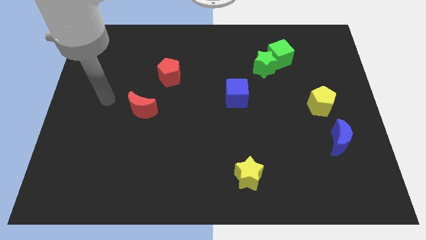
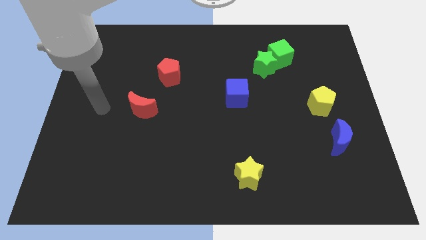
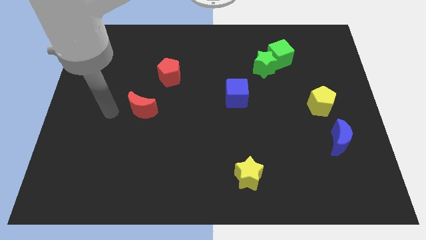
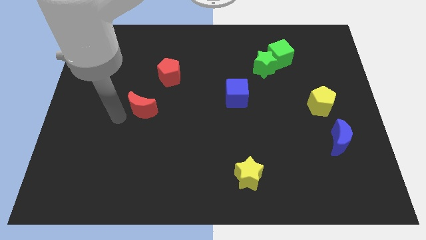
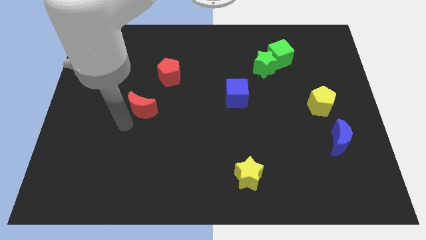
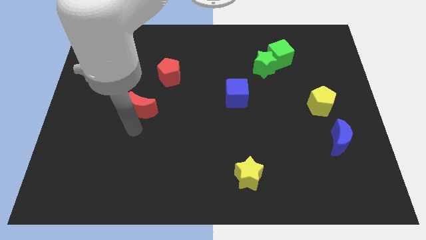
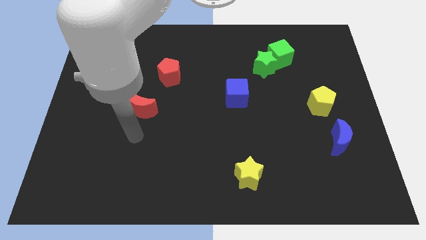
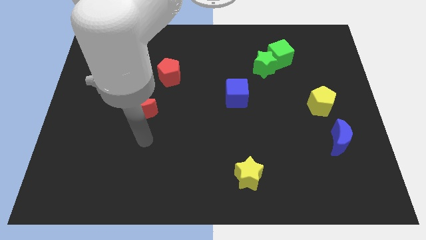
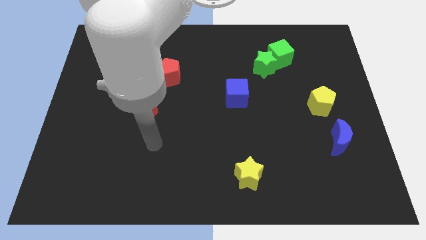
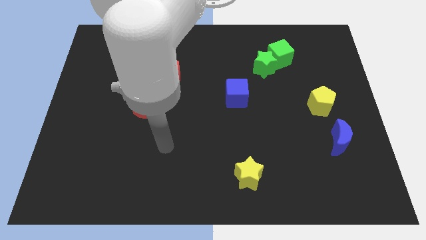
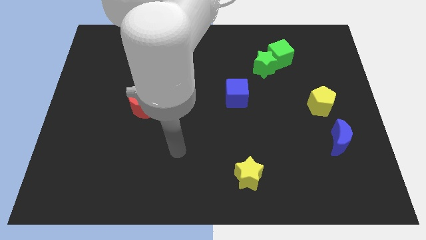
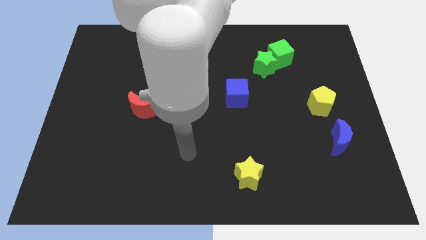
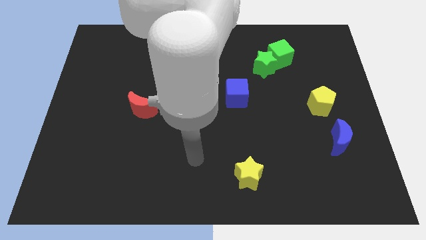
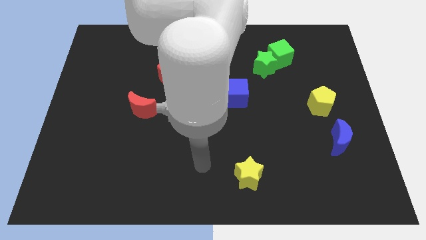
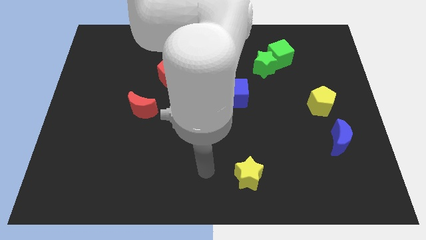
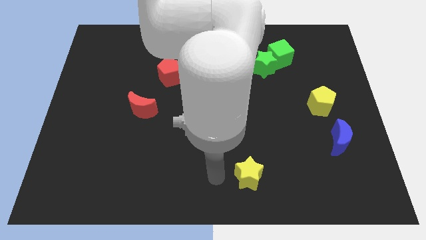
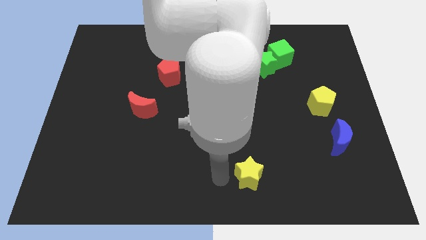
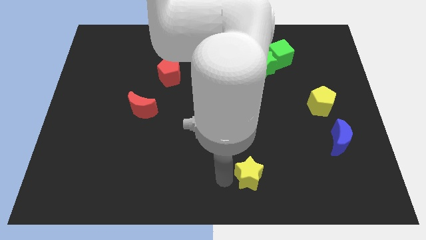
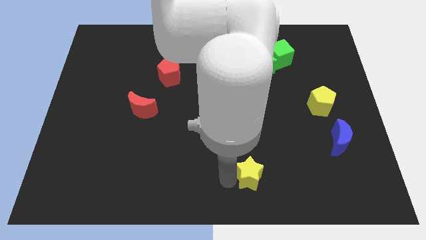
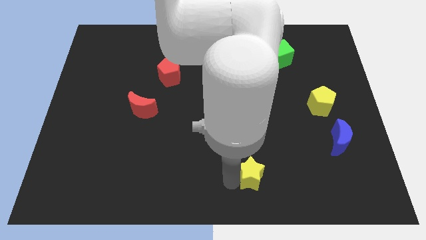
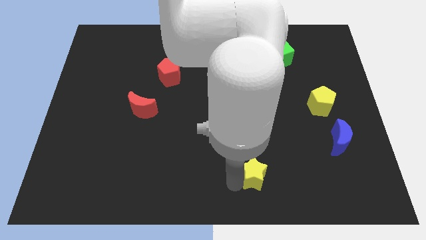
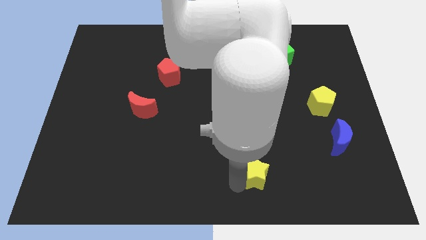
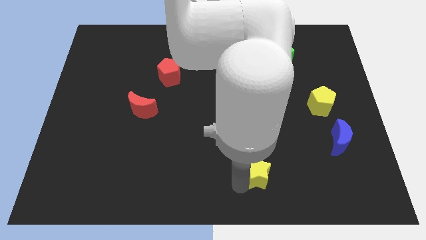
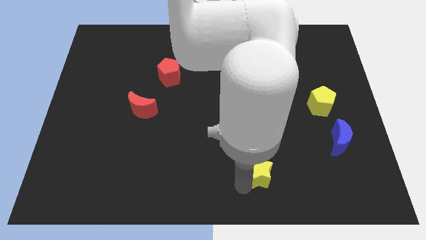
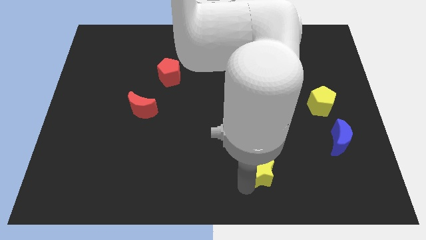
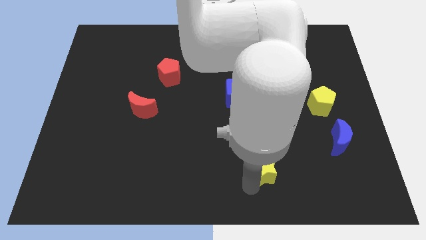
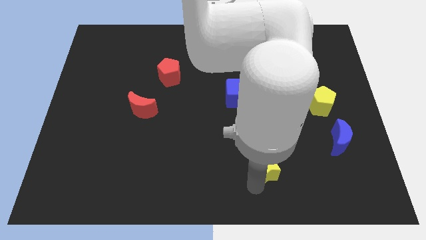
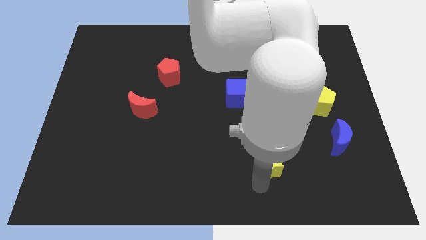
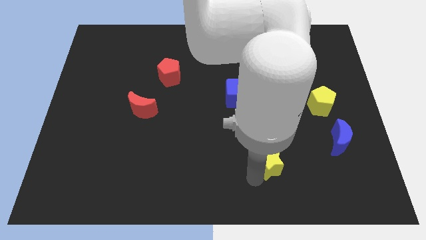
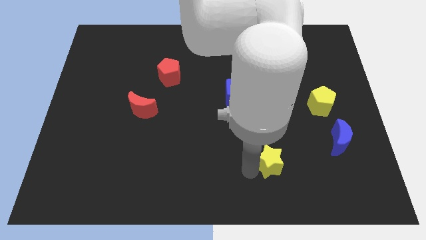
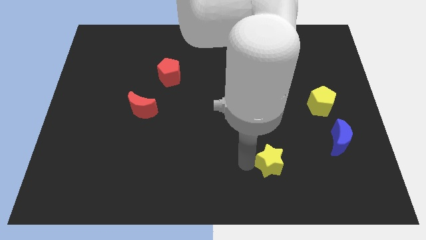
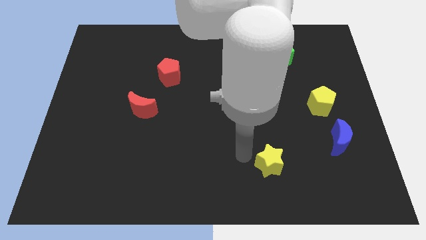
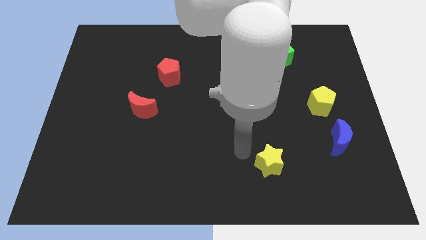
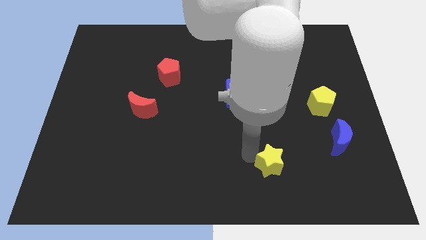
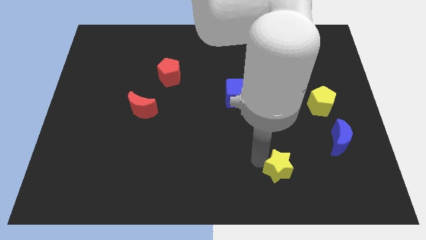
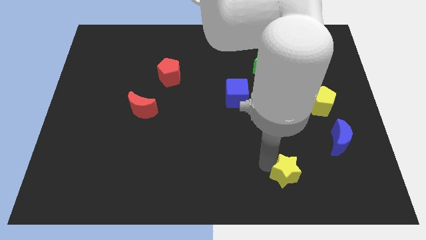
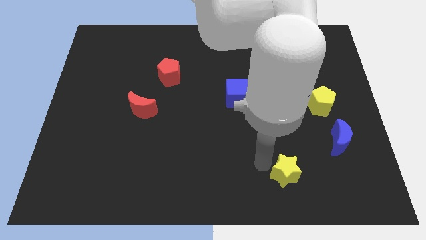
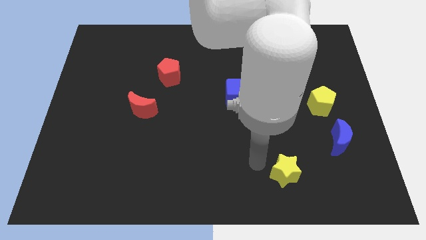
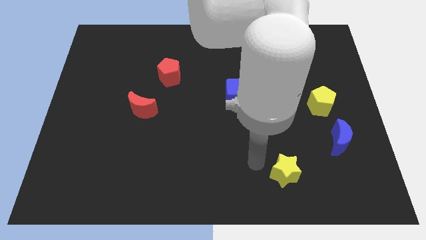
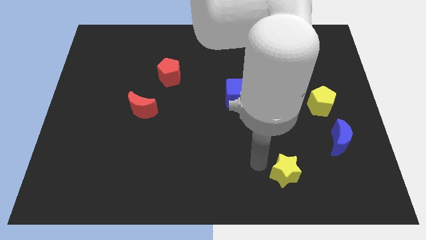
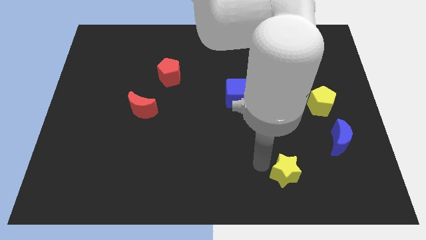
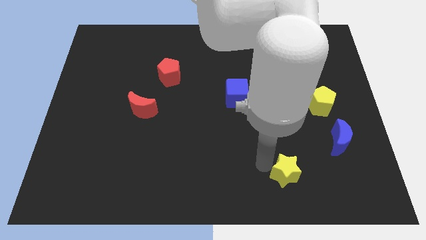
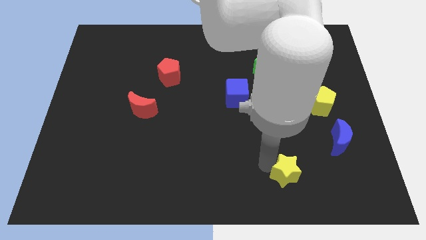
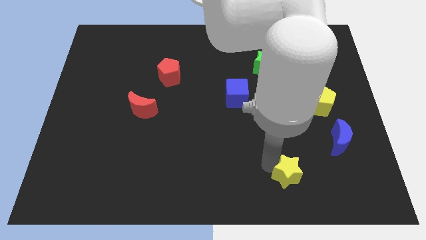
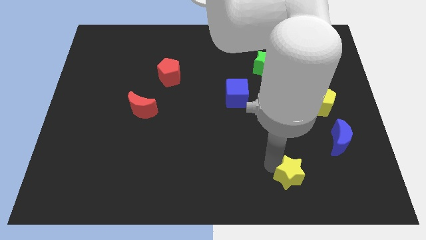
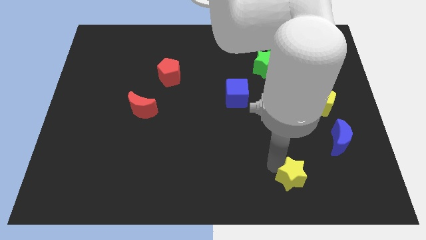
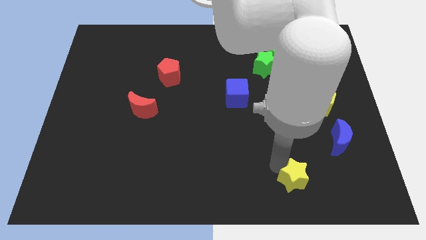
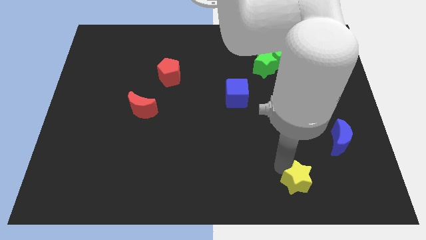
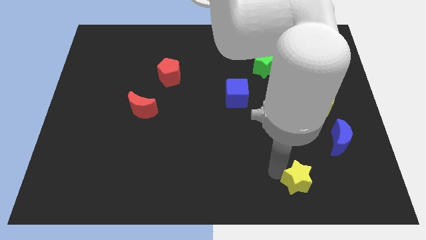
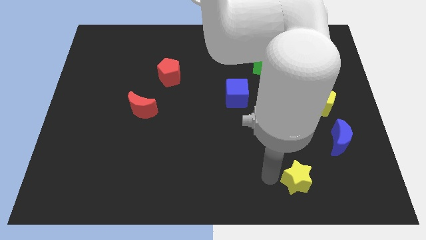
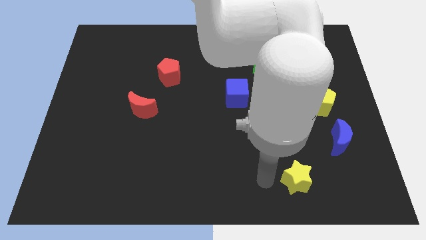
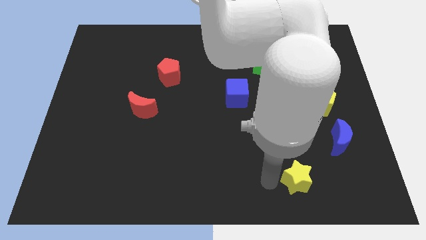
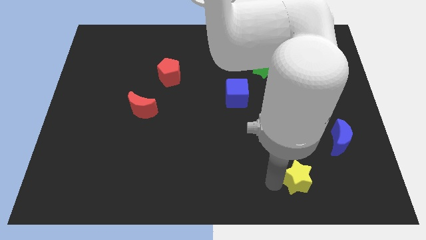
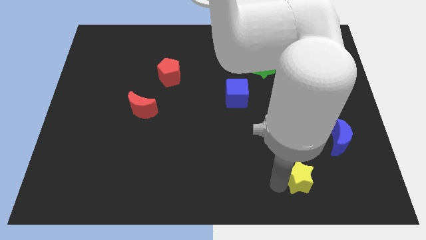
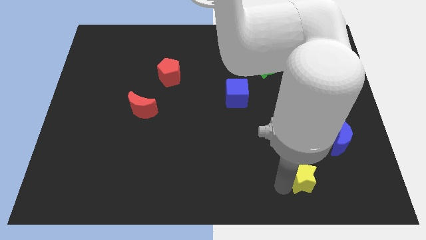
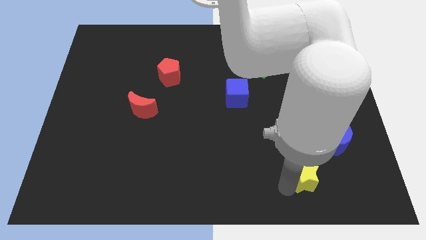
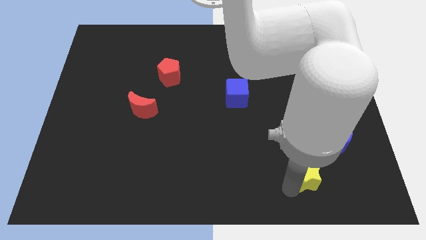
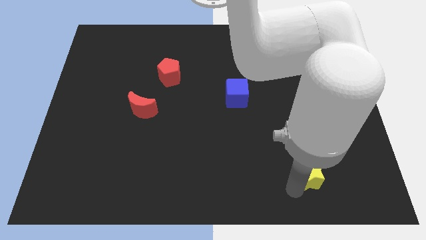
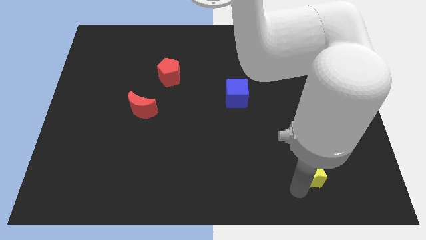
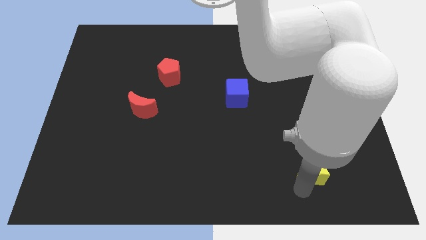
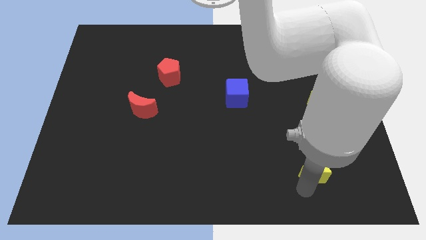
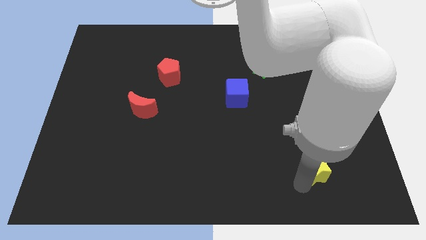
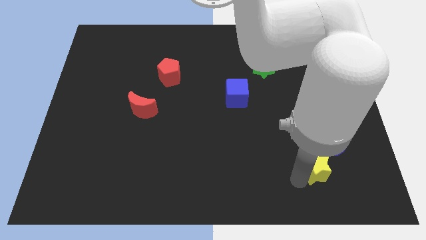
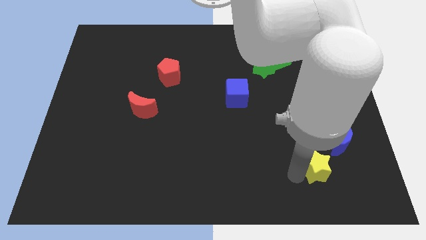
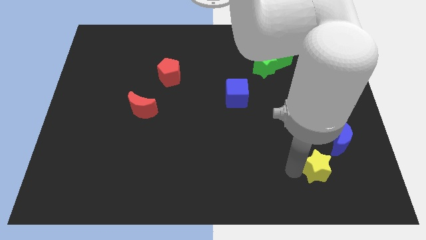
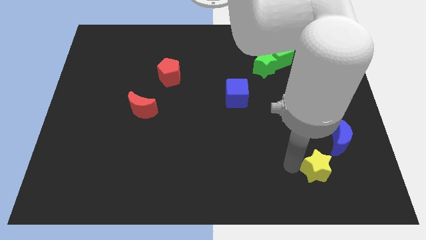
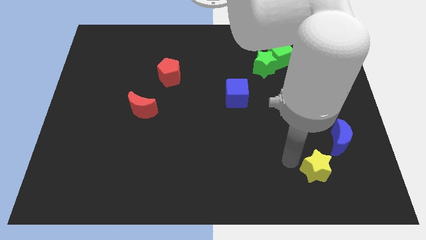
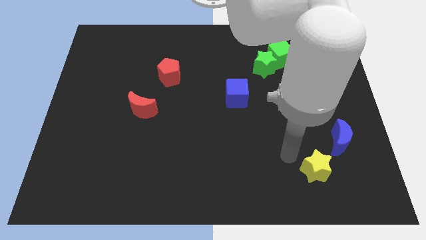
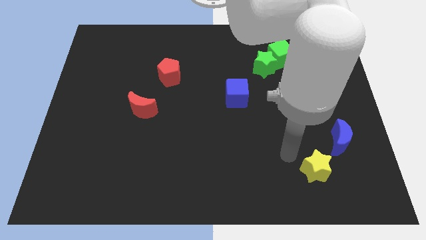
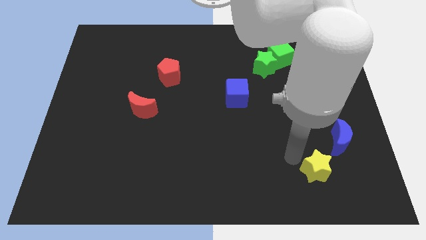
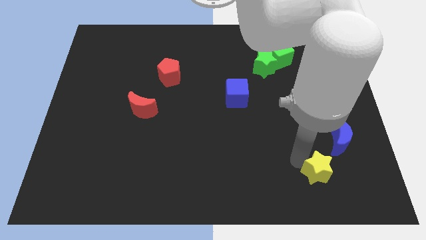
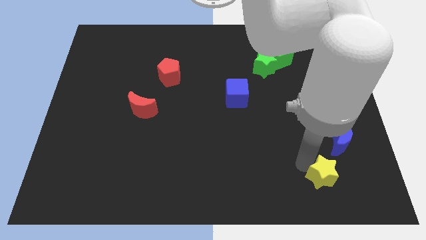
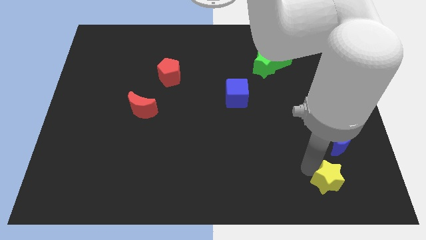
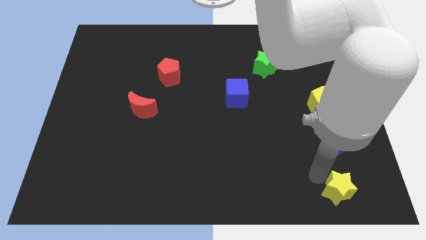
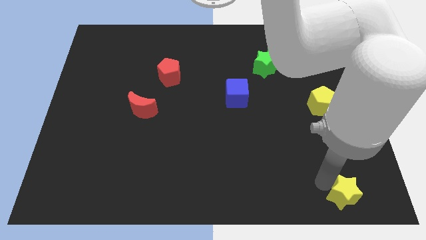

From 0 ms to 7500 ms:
put the yellow star to the bottom right of the board

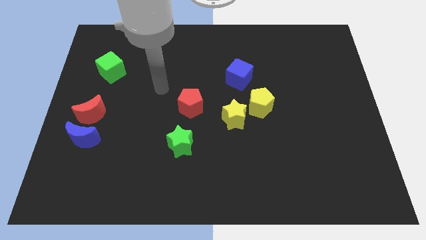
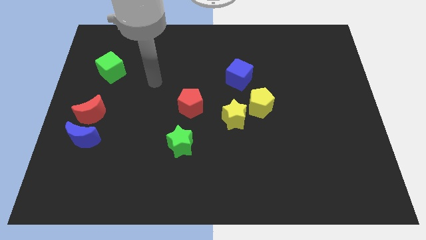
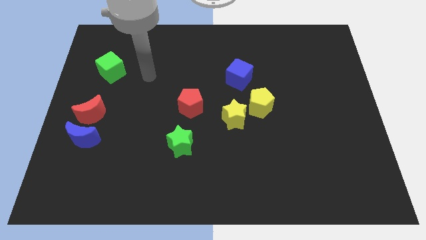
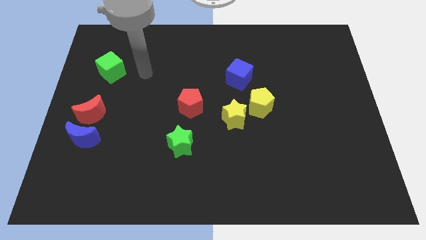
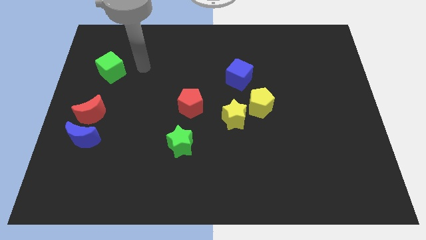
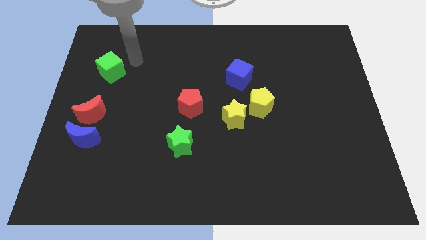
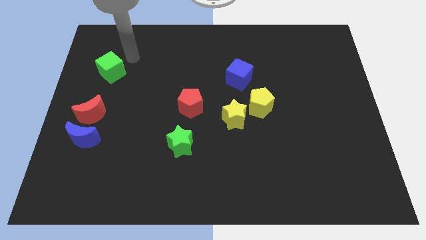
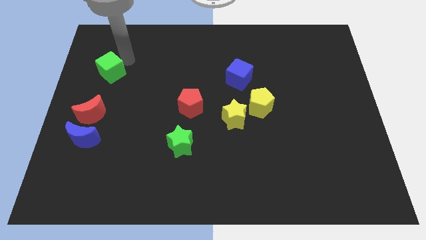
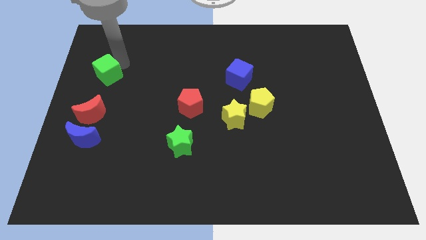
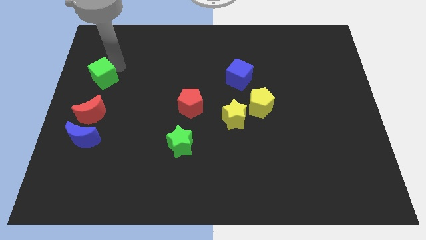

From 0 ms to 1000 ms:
slide the green cube to the left side
